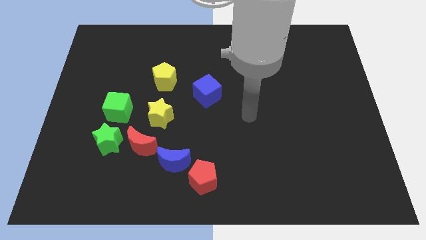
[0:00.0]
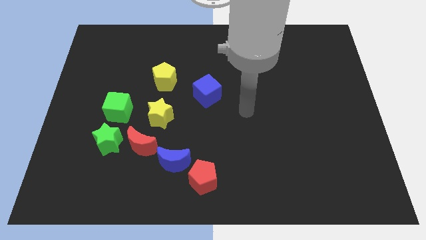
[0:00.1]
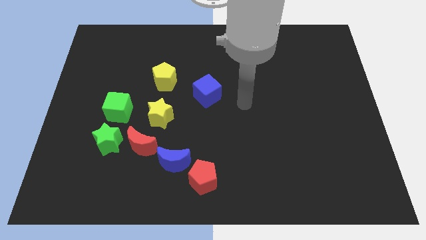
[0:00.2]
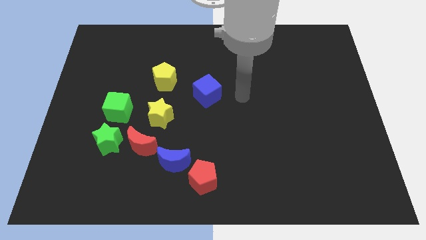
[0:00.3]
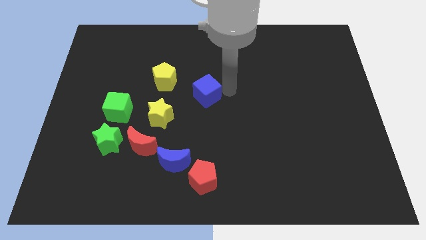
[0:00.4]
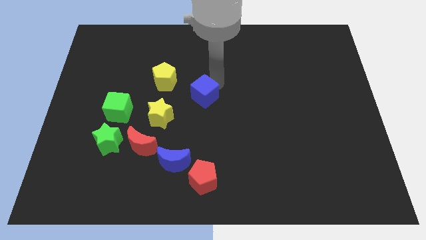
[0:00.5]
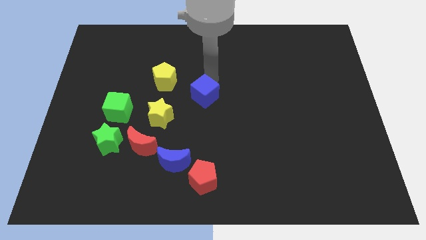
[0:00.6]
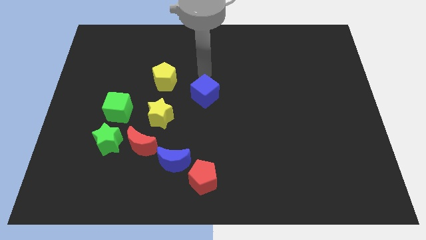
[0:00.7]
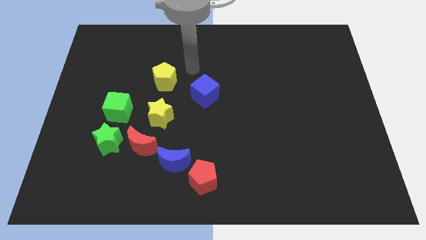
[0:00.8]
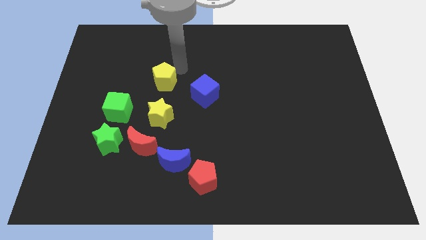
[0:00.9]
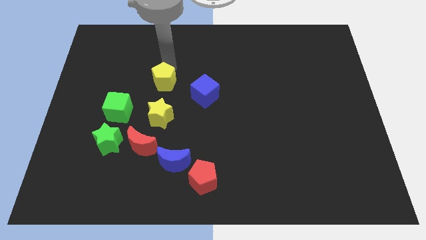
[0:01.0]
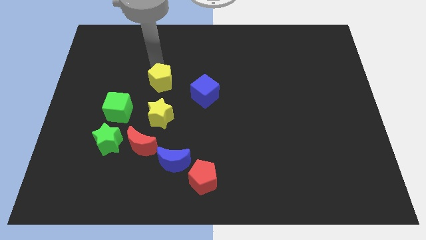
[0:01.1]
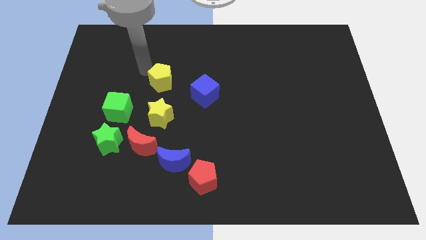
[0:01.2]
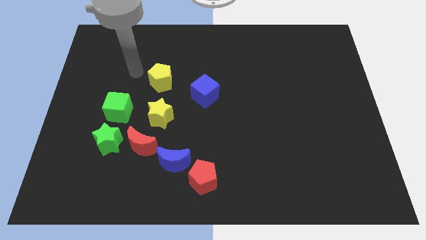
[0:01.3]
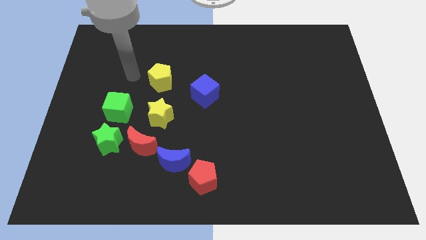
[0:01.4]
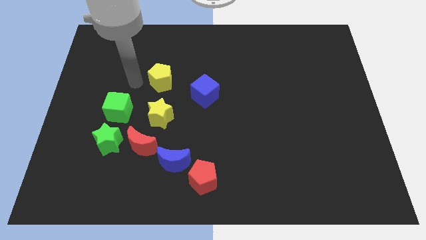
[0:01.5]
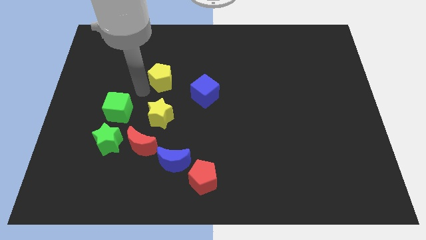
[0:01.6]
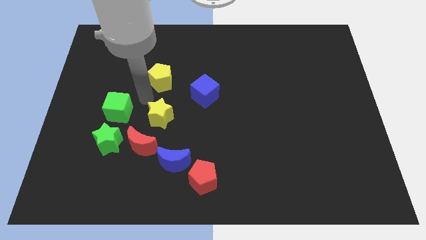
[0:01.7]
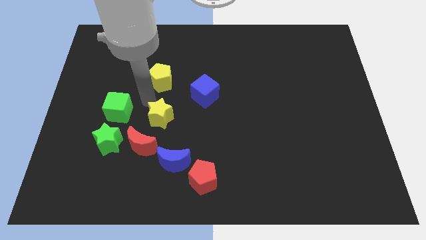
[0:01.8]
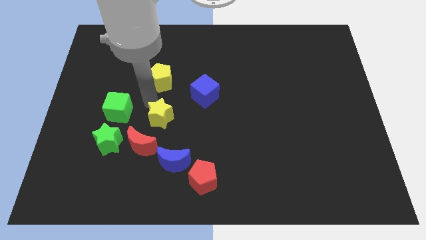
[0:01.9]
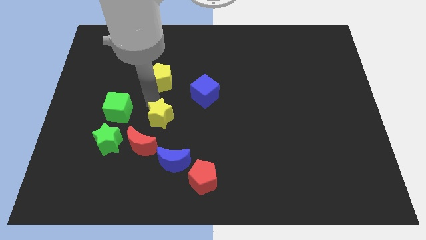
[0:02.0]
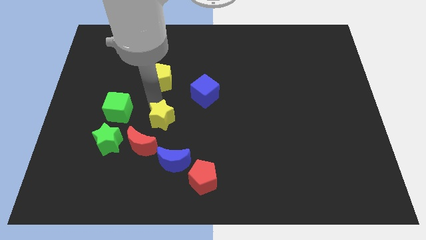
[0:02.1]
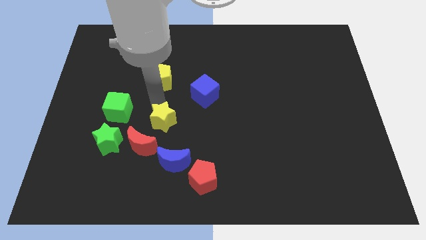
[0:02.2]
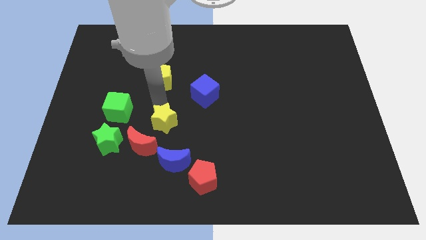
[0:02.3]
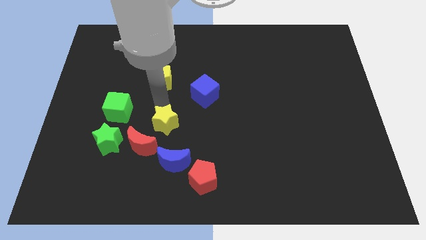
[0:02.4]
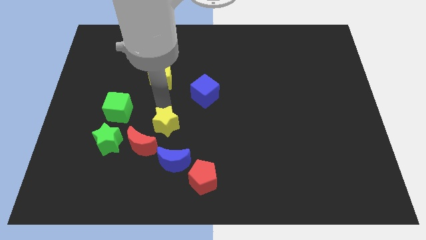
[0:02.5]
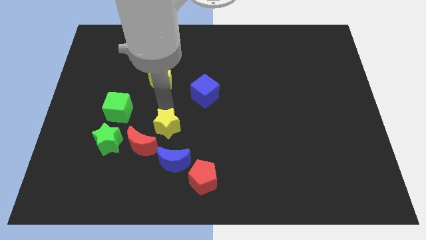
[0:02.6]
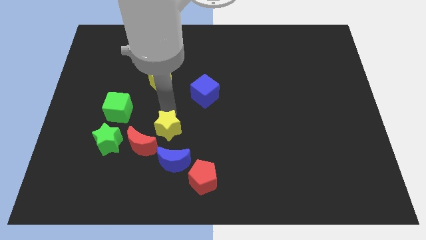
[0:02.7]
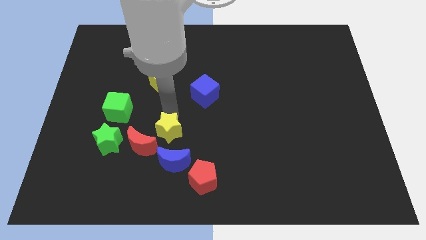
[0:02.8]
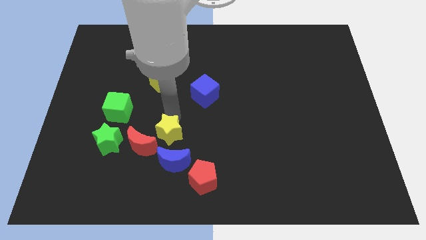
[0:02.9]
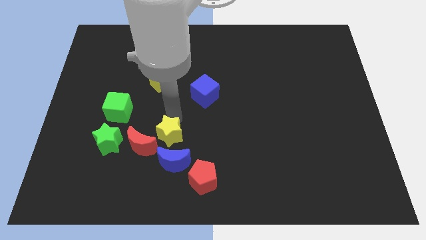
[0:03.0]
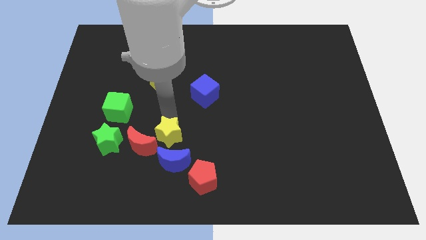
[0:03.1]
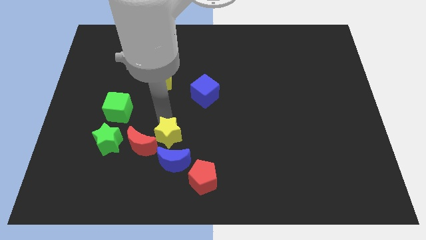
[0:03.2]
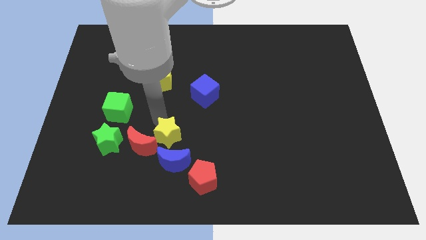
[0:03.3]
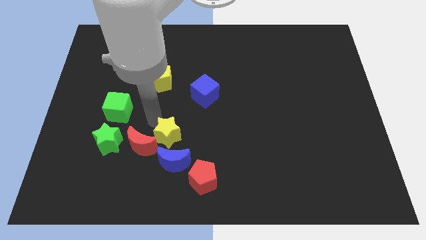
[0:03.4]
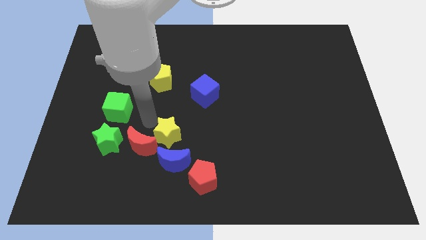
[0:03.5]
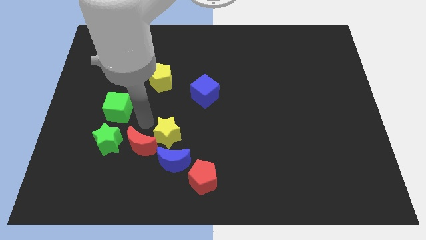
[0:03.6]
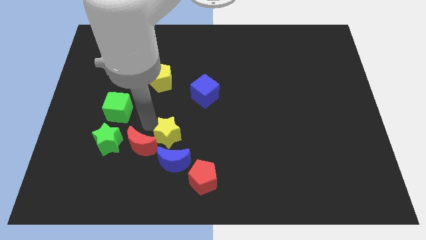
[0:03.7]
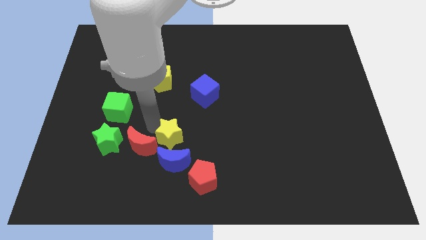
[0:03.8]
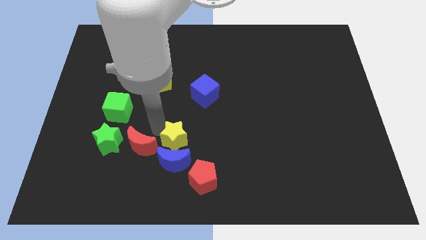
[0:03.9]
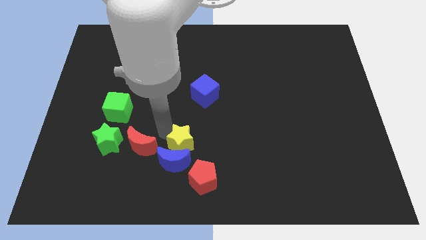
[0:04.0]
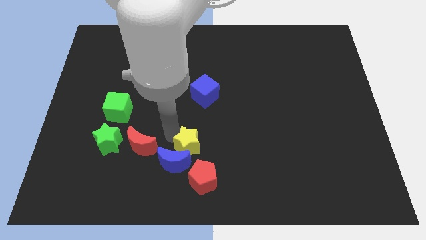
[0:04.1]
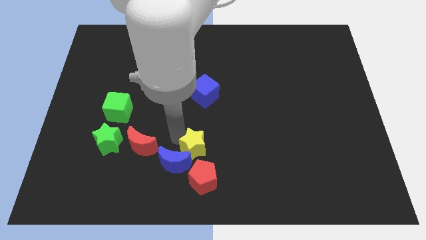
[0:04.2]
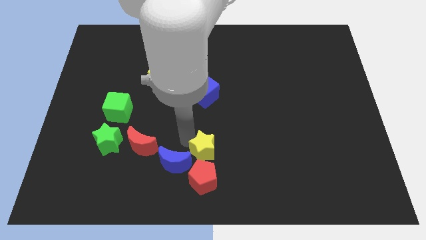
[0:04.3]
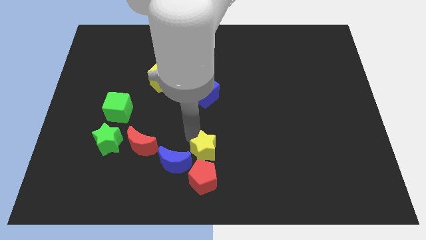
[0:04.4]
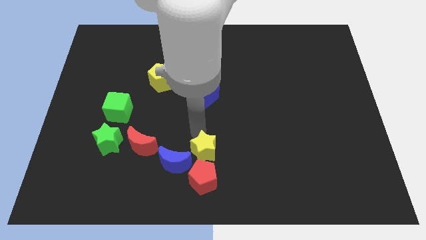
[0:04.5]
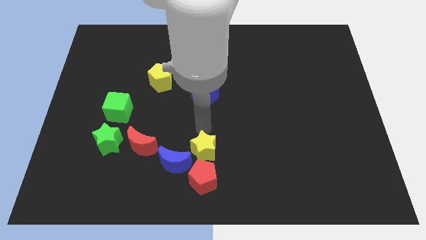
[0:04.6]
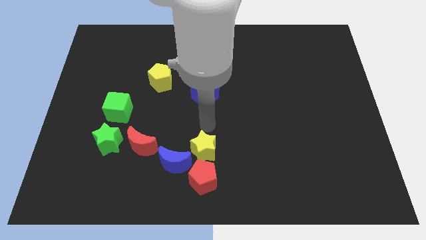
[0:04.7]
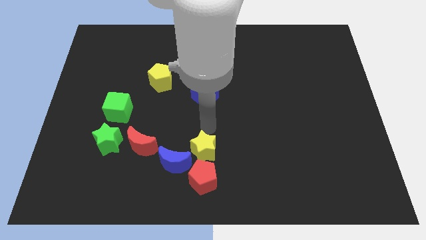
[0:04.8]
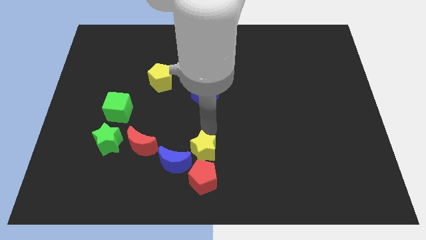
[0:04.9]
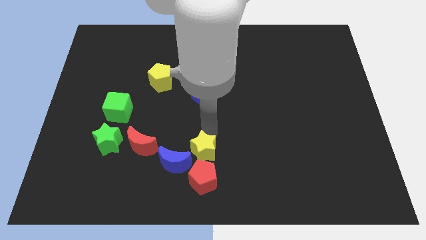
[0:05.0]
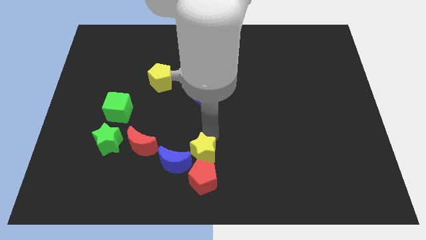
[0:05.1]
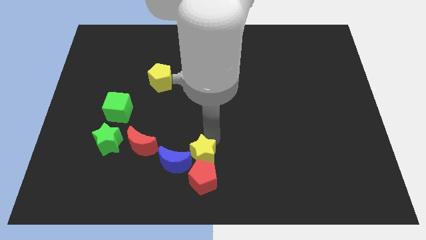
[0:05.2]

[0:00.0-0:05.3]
slide the yellow star close to the red pentagon

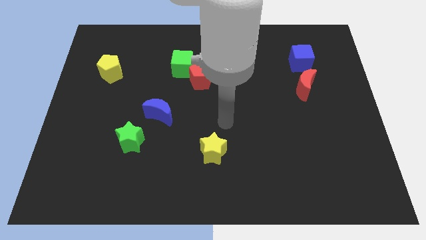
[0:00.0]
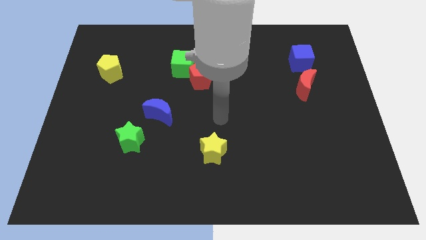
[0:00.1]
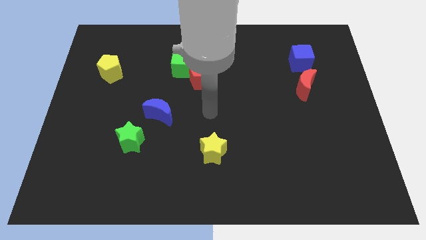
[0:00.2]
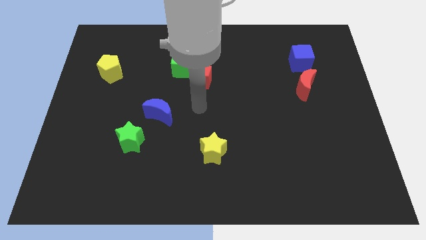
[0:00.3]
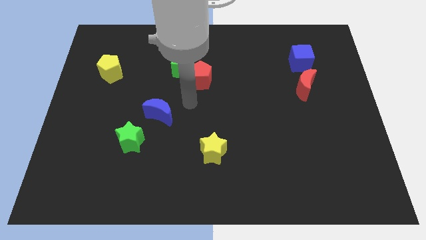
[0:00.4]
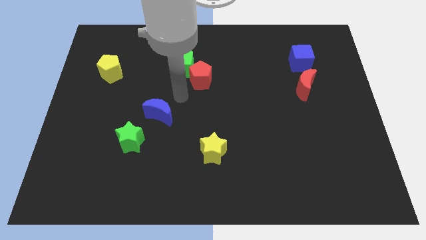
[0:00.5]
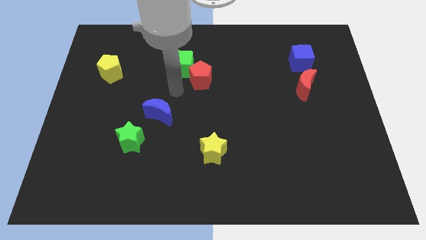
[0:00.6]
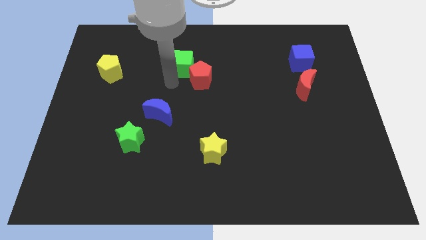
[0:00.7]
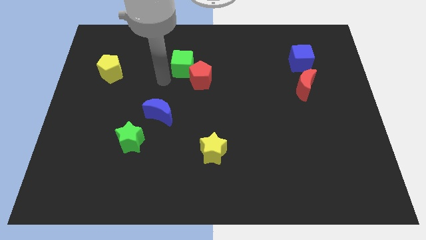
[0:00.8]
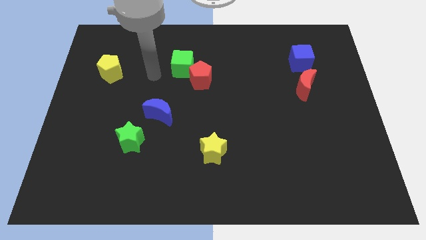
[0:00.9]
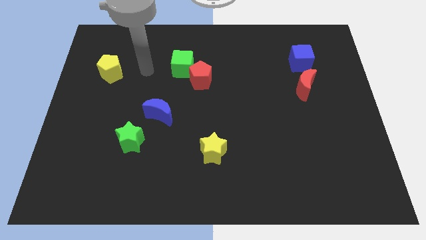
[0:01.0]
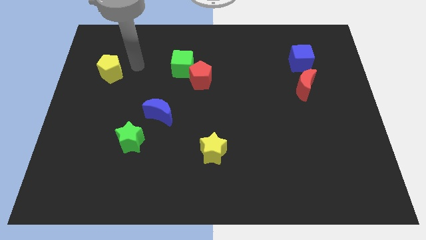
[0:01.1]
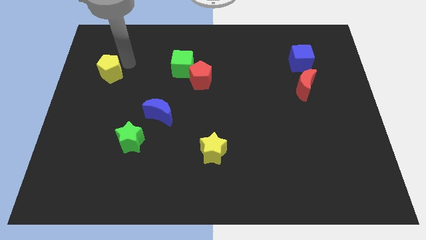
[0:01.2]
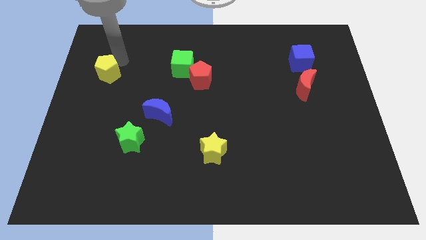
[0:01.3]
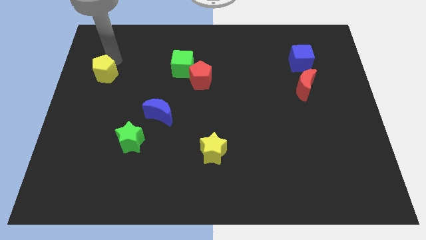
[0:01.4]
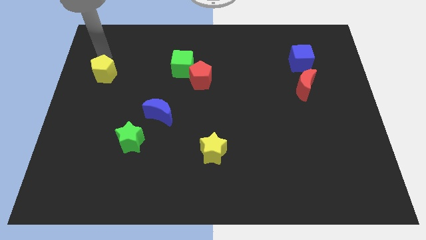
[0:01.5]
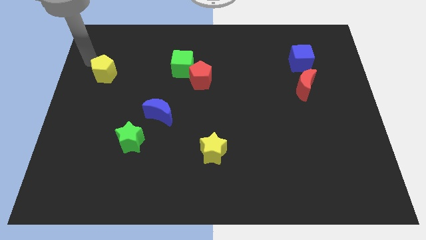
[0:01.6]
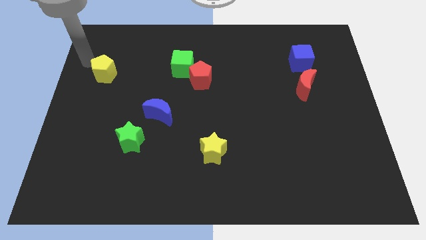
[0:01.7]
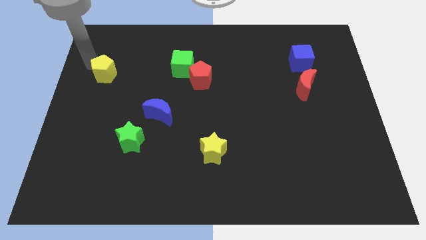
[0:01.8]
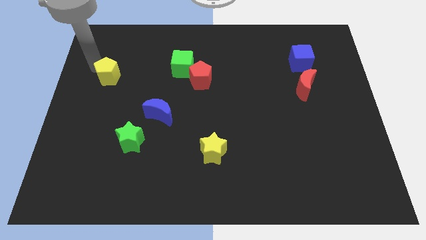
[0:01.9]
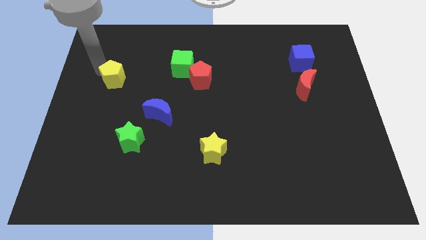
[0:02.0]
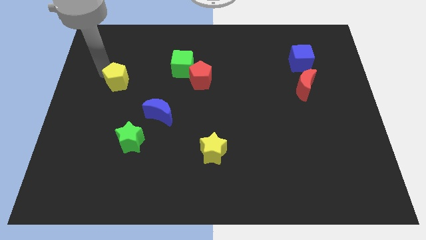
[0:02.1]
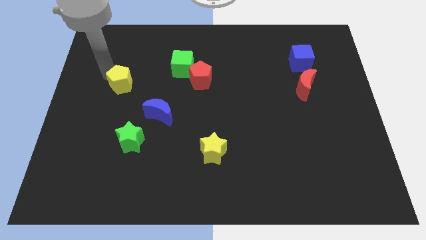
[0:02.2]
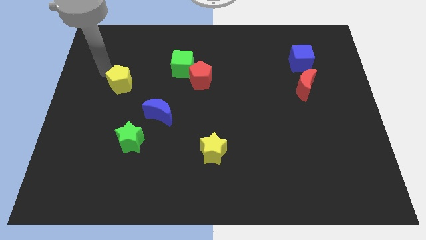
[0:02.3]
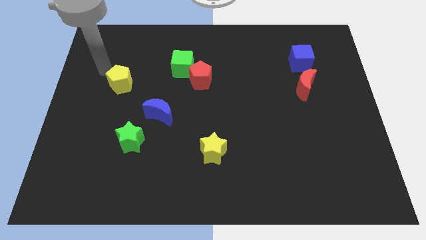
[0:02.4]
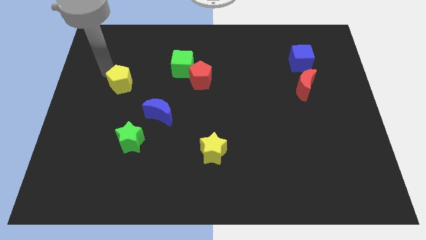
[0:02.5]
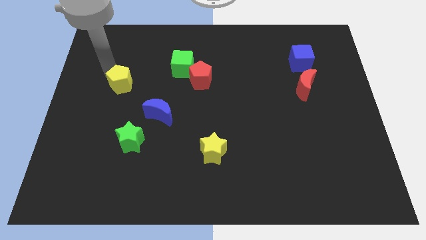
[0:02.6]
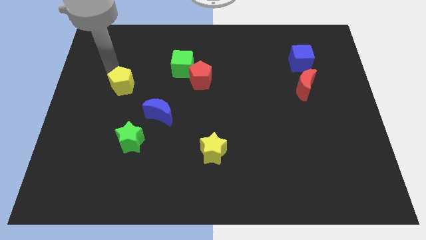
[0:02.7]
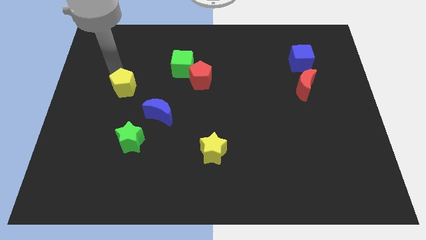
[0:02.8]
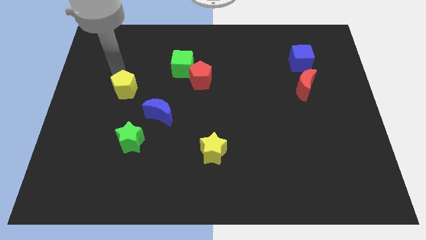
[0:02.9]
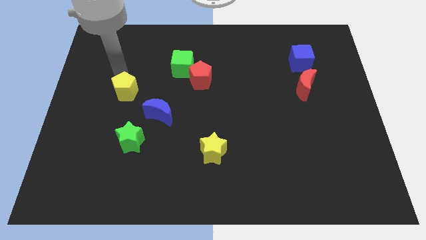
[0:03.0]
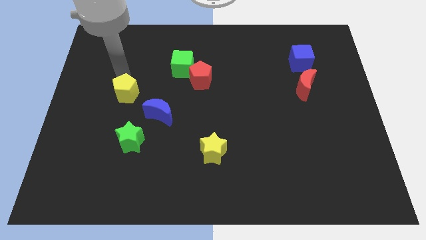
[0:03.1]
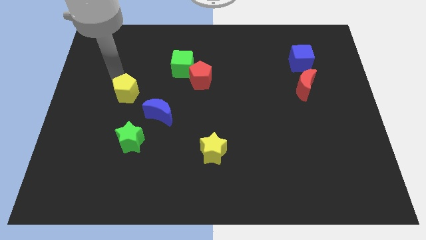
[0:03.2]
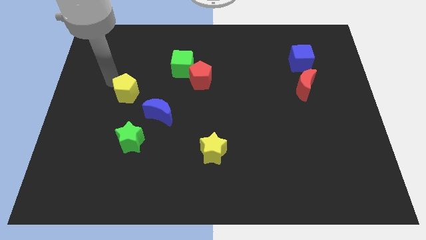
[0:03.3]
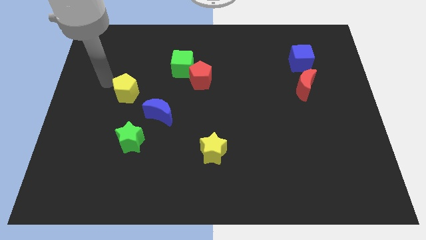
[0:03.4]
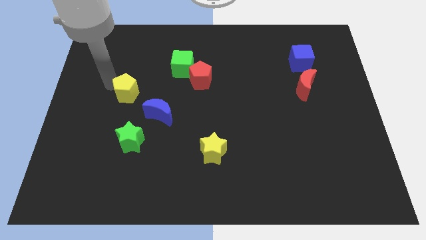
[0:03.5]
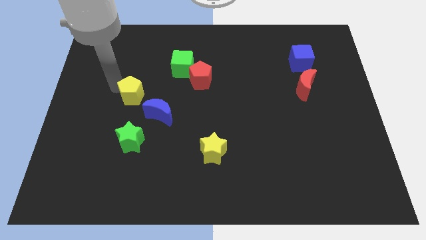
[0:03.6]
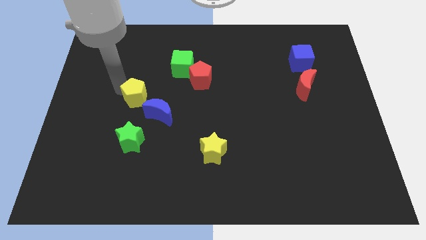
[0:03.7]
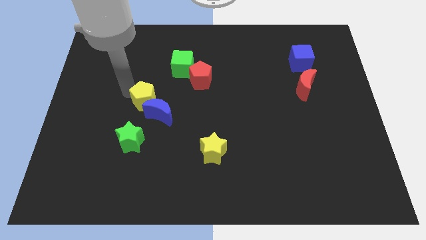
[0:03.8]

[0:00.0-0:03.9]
put the yellow pentagon next to the blue moon
